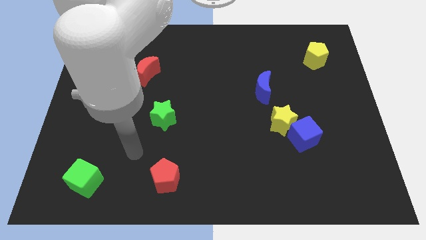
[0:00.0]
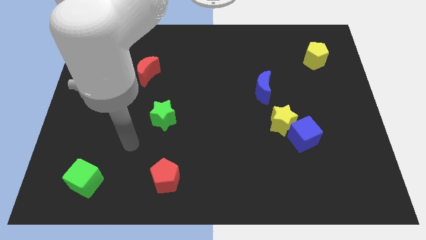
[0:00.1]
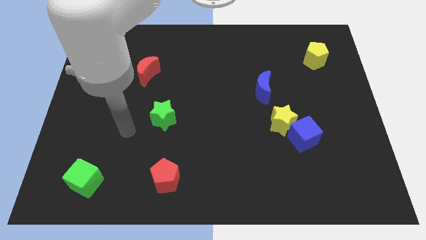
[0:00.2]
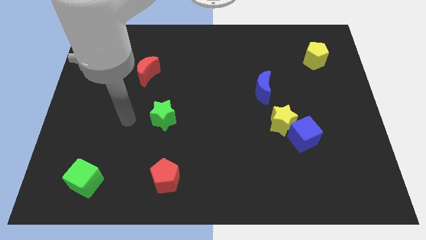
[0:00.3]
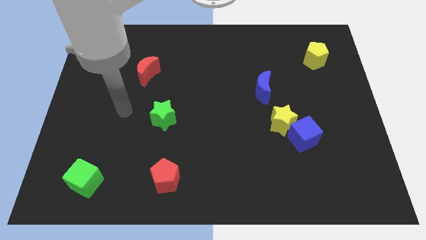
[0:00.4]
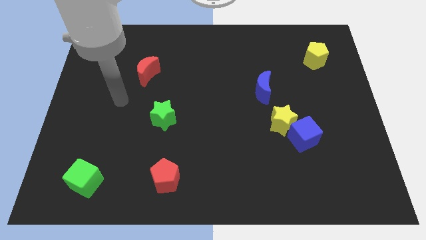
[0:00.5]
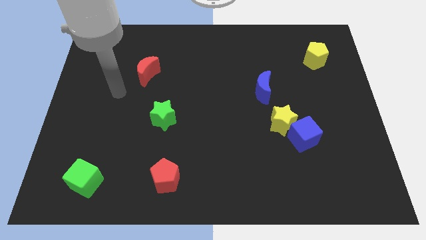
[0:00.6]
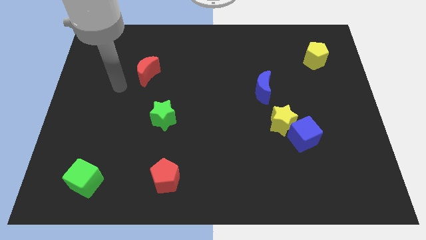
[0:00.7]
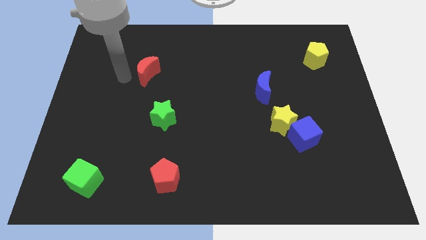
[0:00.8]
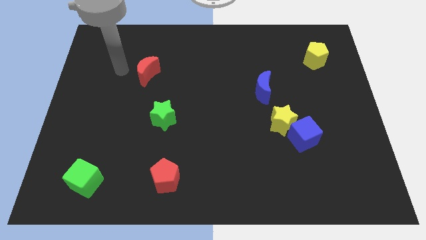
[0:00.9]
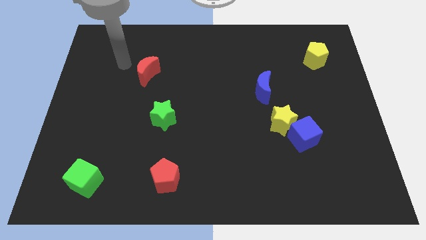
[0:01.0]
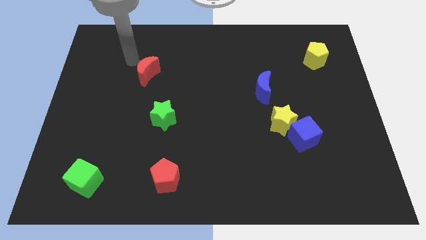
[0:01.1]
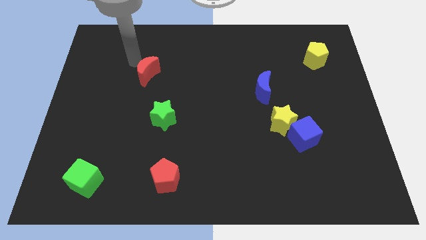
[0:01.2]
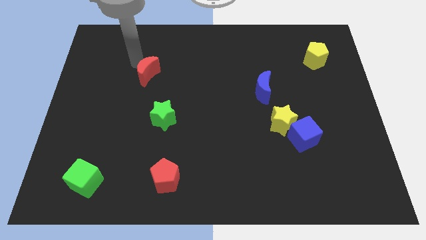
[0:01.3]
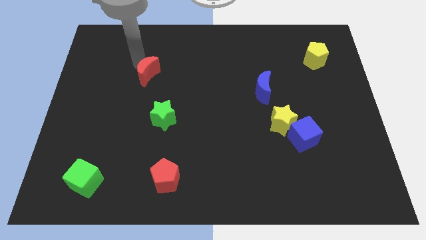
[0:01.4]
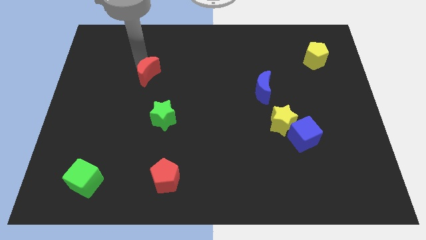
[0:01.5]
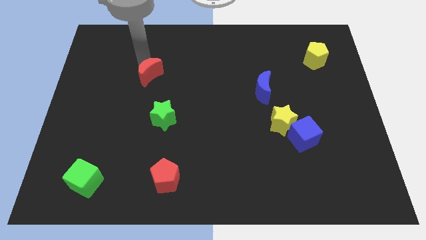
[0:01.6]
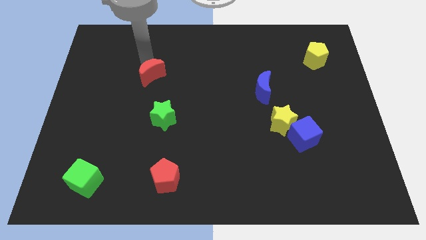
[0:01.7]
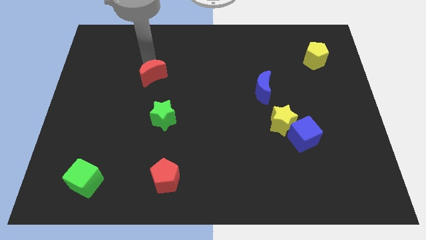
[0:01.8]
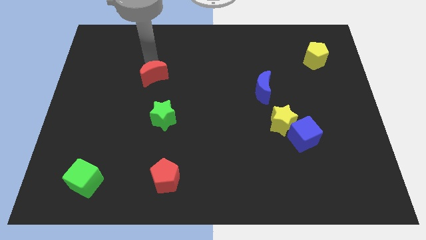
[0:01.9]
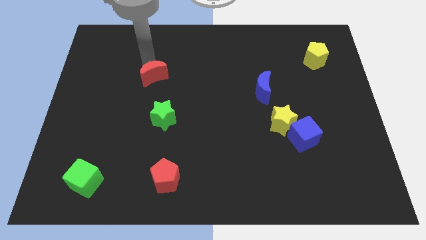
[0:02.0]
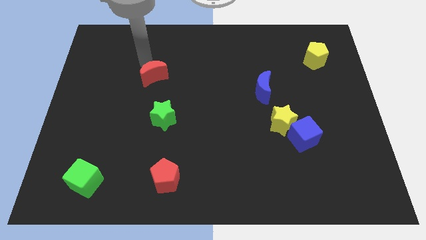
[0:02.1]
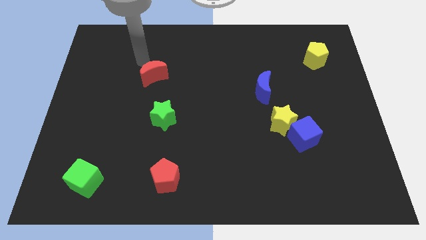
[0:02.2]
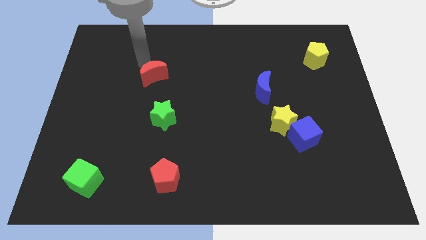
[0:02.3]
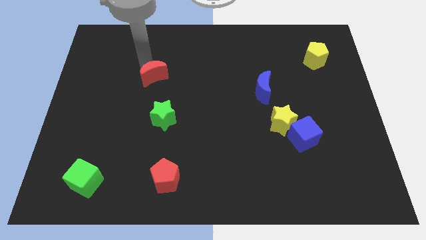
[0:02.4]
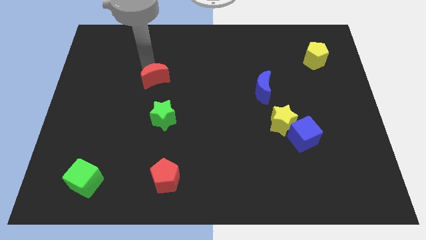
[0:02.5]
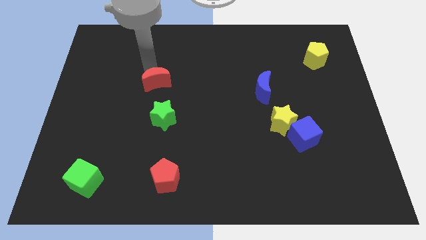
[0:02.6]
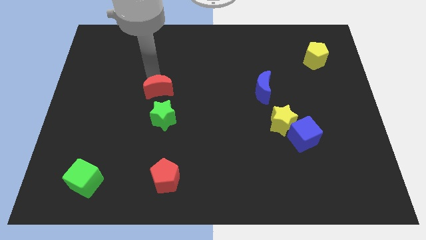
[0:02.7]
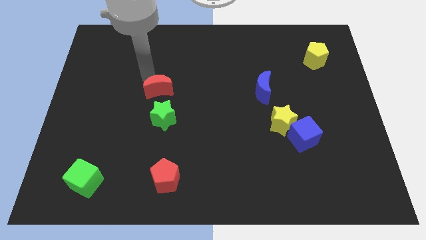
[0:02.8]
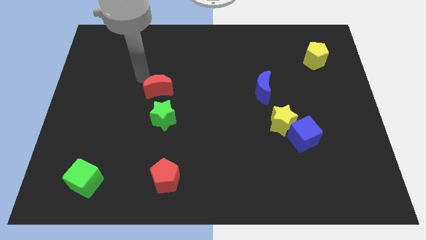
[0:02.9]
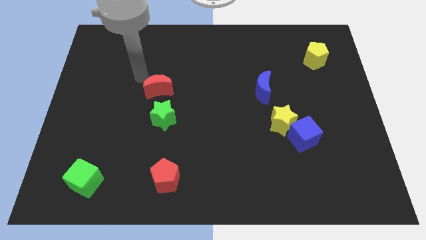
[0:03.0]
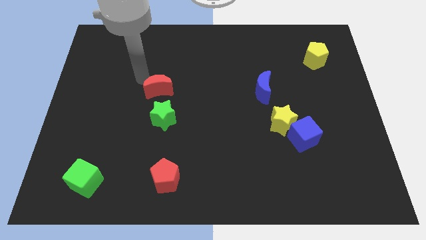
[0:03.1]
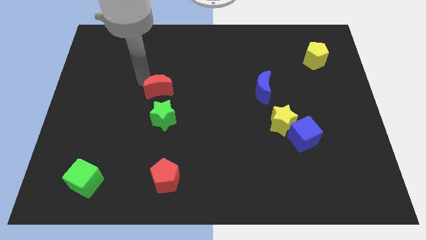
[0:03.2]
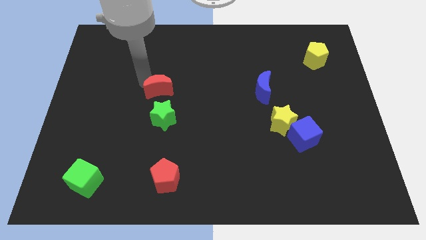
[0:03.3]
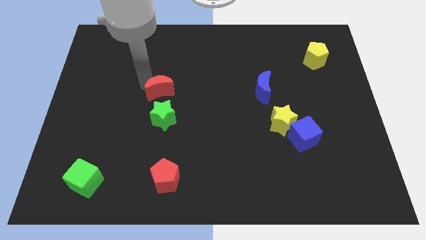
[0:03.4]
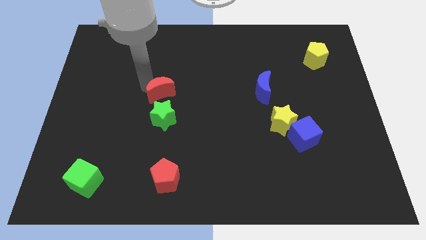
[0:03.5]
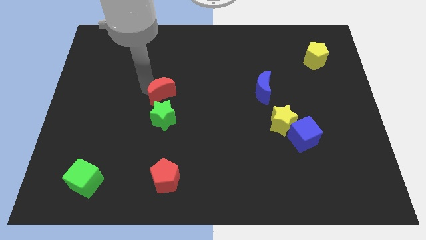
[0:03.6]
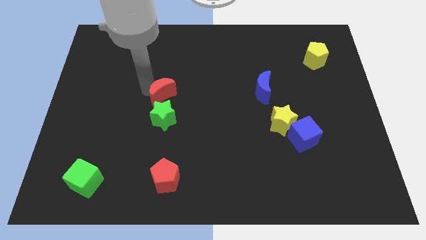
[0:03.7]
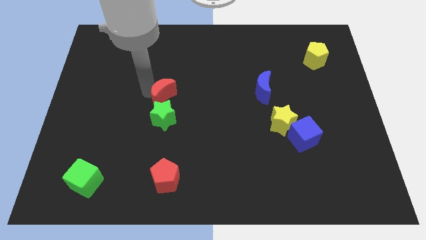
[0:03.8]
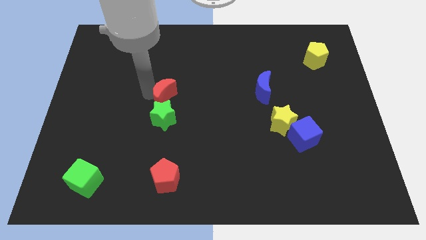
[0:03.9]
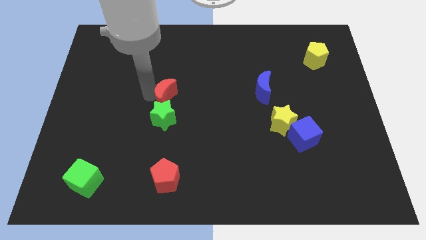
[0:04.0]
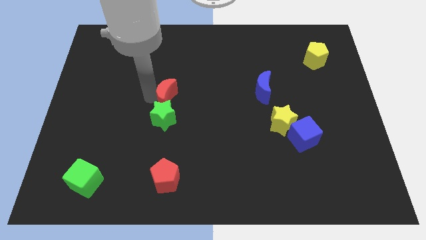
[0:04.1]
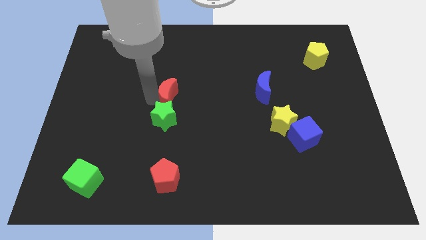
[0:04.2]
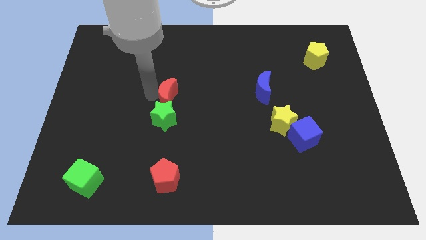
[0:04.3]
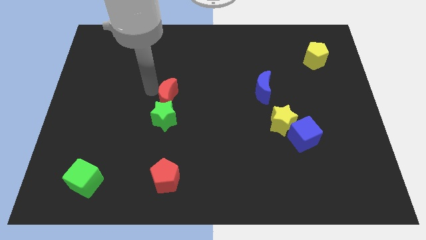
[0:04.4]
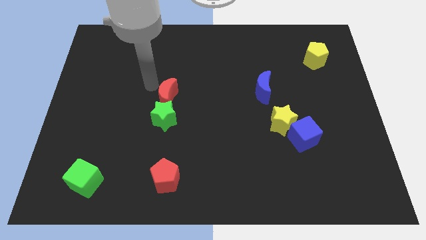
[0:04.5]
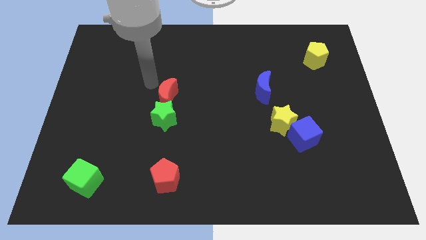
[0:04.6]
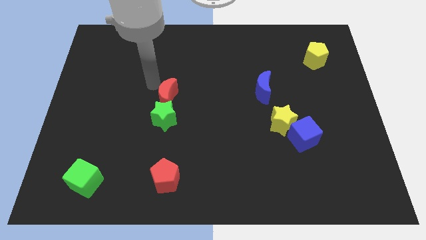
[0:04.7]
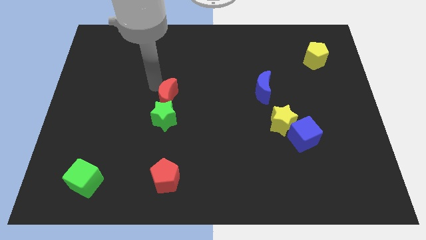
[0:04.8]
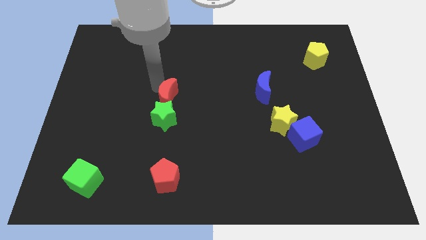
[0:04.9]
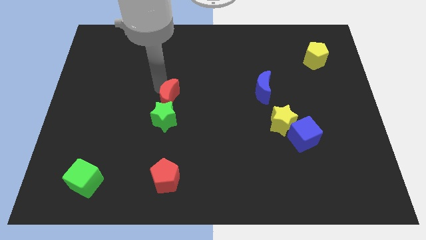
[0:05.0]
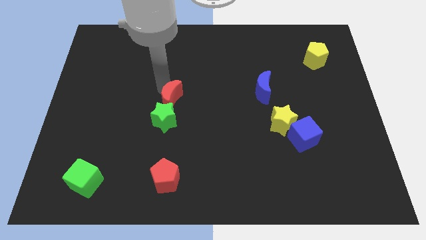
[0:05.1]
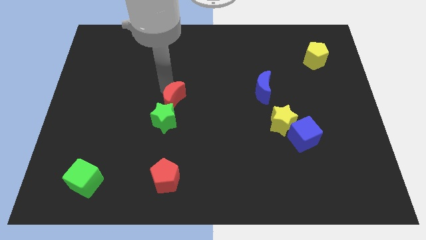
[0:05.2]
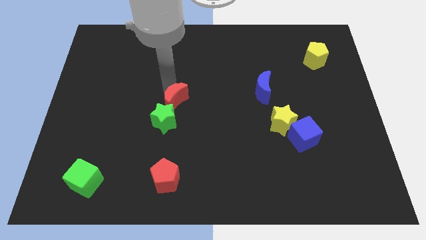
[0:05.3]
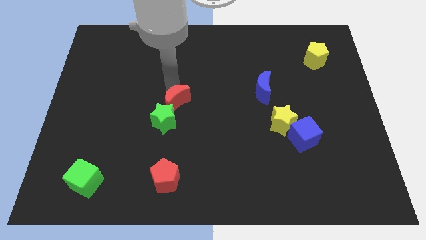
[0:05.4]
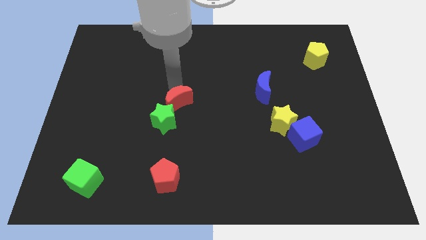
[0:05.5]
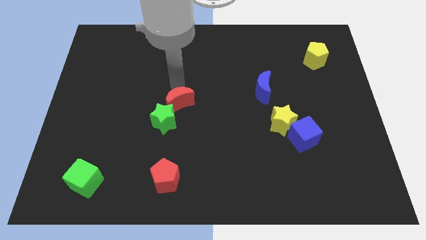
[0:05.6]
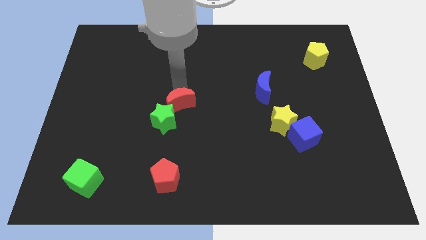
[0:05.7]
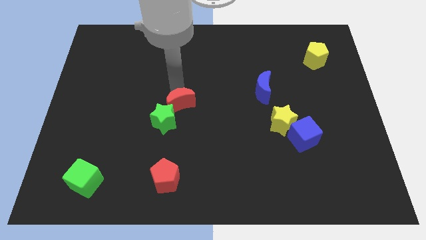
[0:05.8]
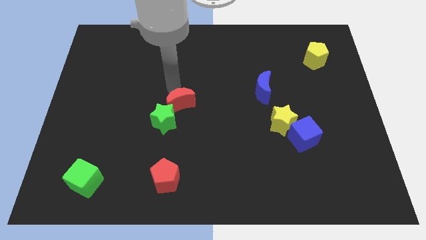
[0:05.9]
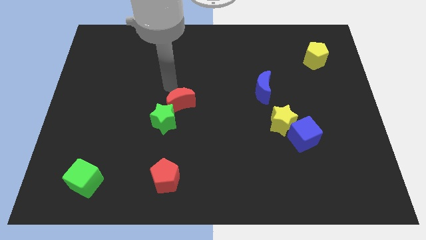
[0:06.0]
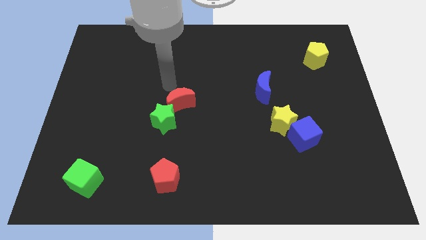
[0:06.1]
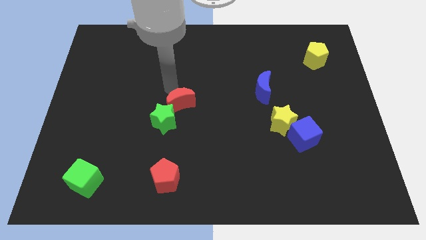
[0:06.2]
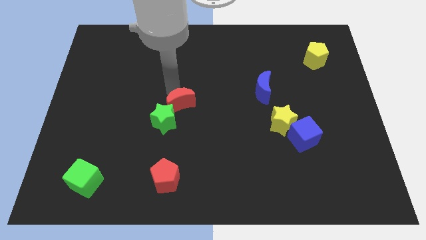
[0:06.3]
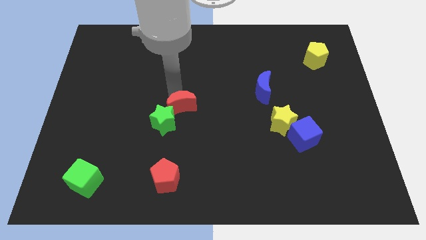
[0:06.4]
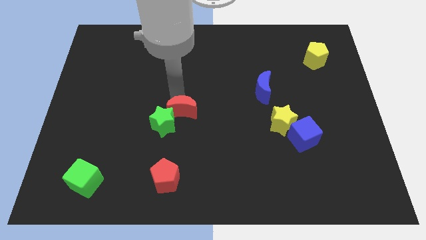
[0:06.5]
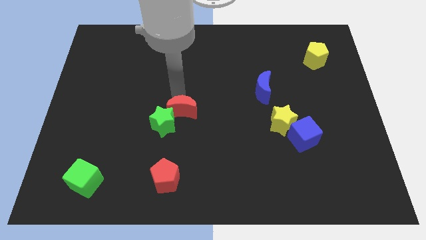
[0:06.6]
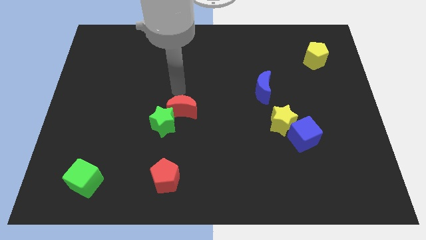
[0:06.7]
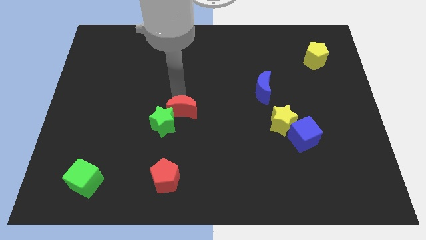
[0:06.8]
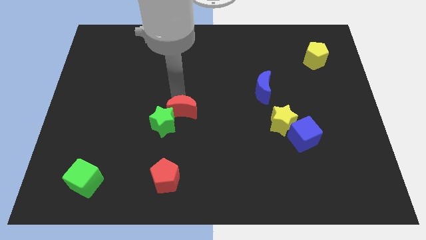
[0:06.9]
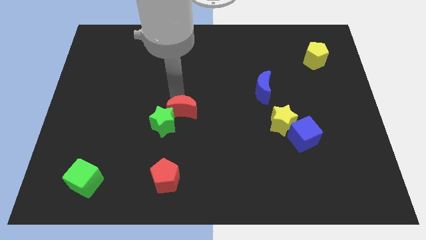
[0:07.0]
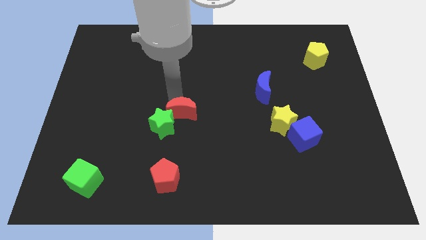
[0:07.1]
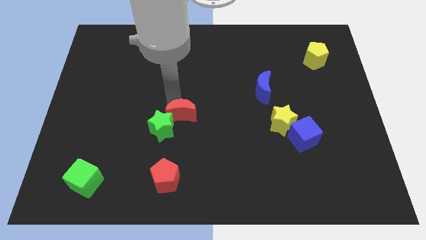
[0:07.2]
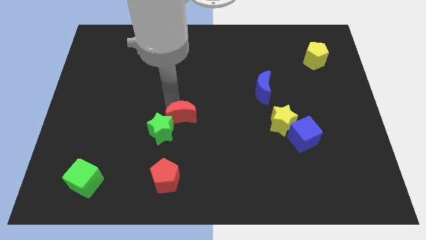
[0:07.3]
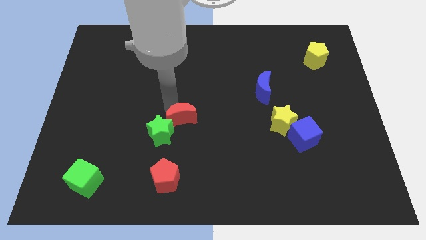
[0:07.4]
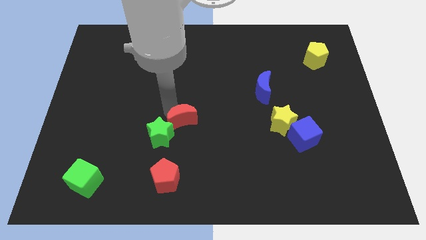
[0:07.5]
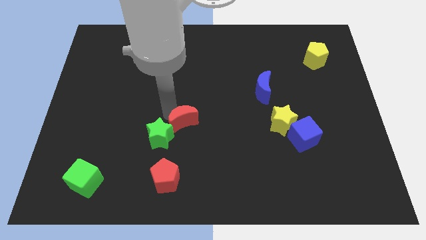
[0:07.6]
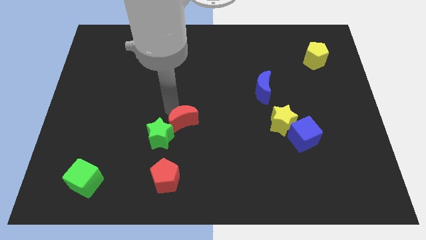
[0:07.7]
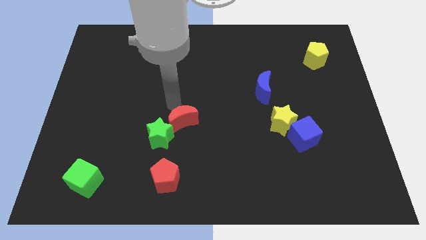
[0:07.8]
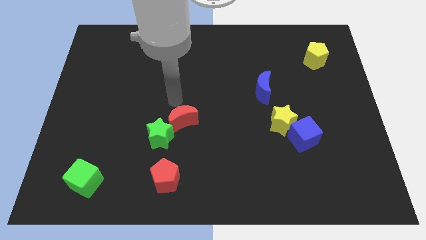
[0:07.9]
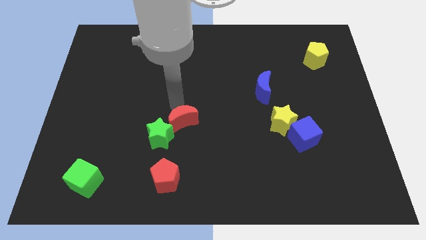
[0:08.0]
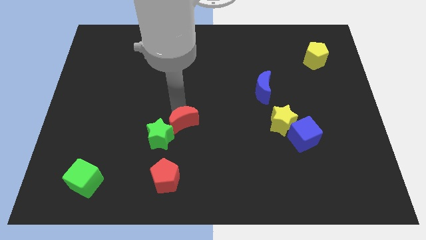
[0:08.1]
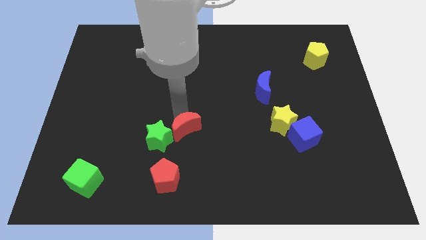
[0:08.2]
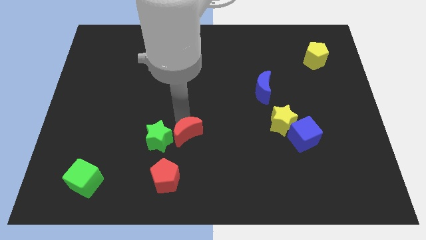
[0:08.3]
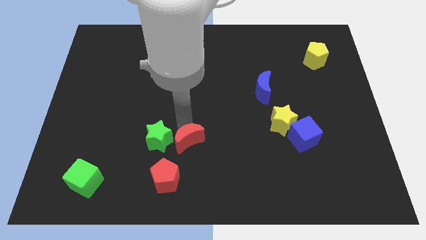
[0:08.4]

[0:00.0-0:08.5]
move the red moon diagonally up and to the right of the red pentagon

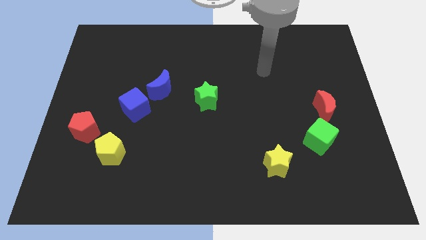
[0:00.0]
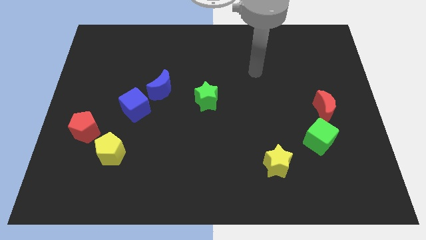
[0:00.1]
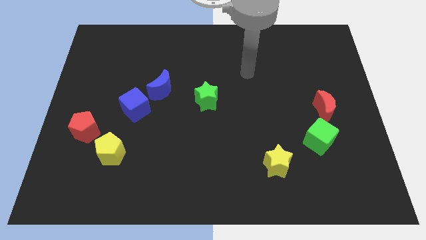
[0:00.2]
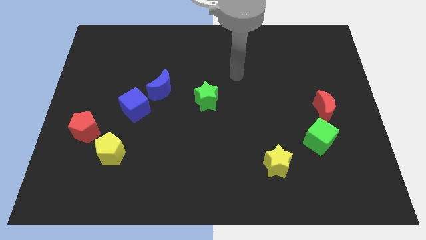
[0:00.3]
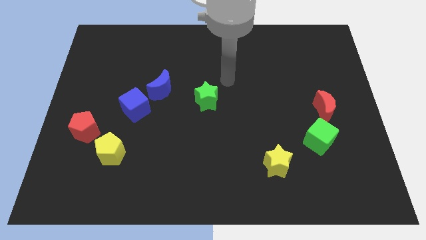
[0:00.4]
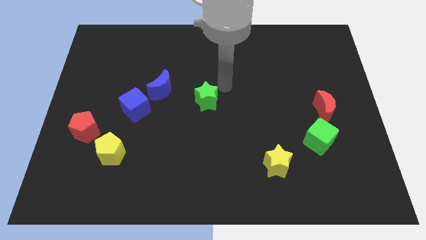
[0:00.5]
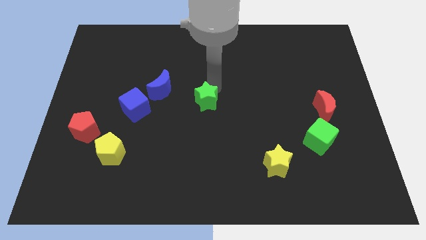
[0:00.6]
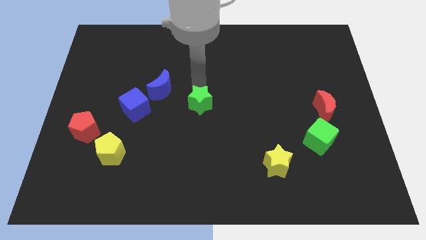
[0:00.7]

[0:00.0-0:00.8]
slide the blue moon to the top left of the green star
